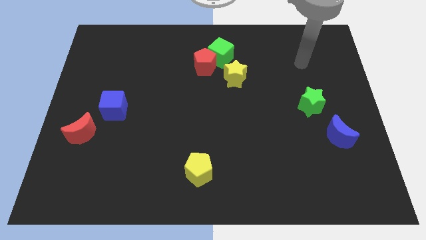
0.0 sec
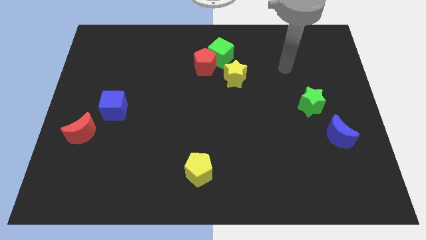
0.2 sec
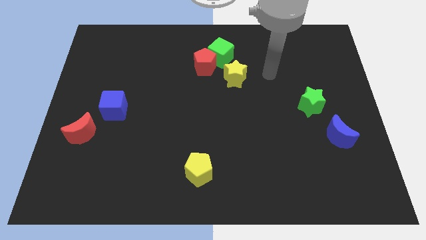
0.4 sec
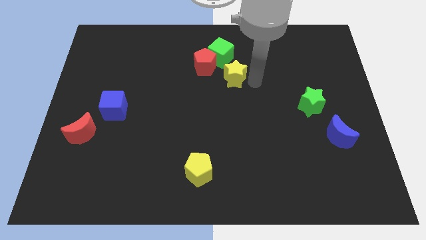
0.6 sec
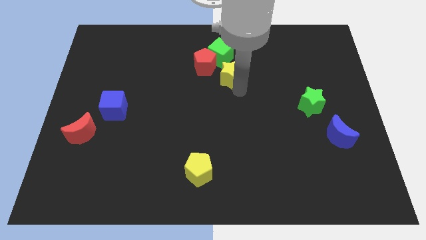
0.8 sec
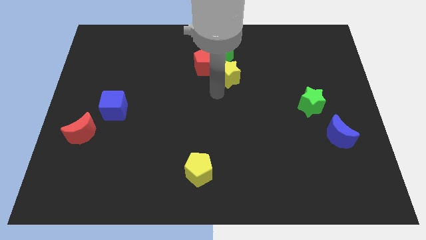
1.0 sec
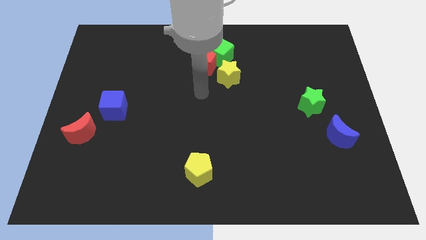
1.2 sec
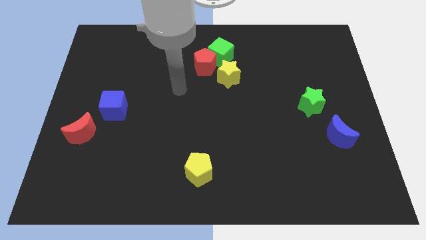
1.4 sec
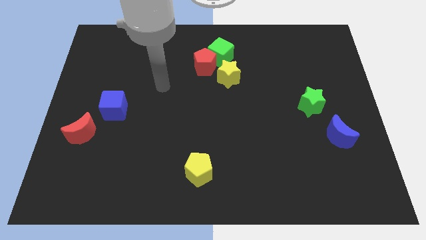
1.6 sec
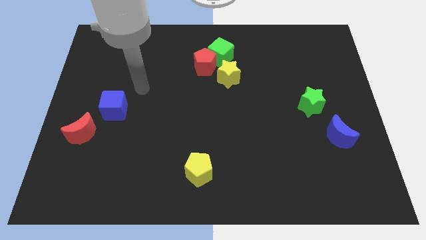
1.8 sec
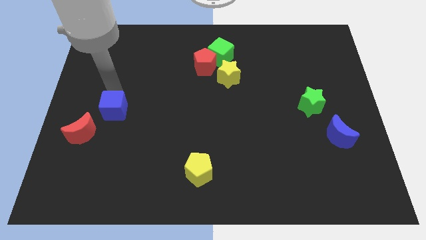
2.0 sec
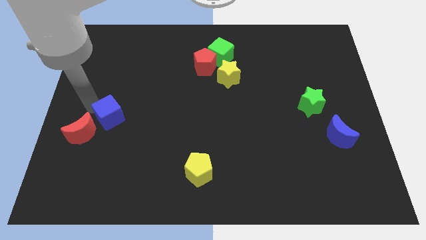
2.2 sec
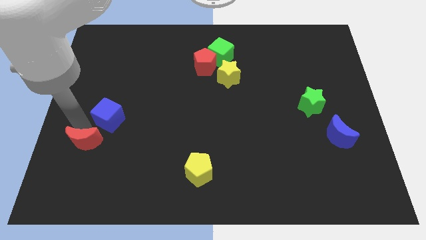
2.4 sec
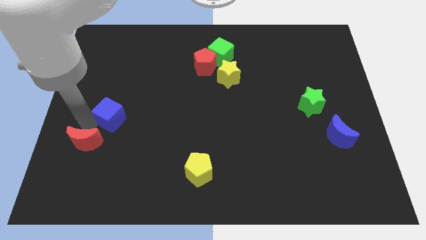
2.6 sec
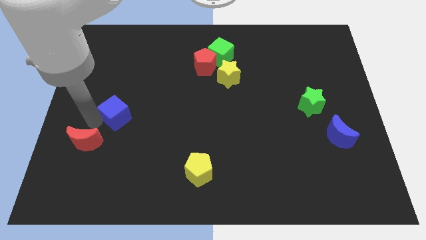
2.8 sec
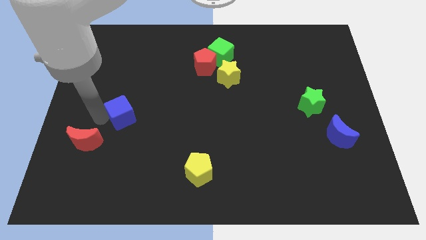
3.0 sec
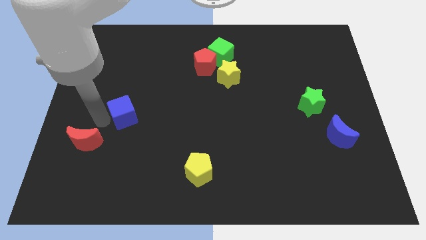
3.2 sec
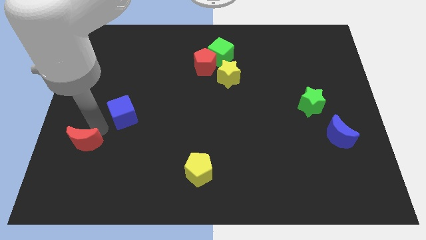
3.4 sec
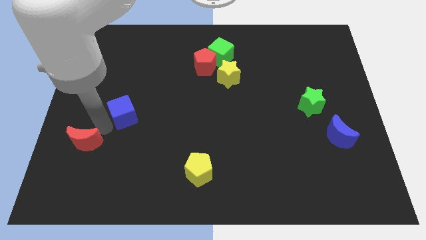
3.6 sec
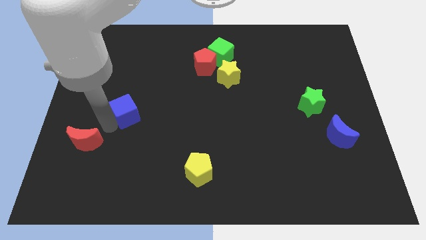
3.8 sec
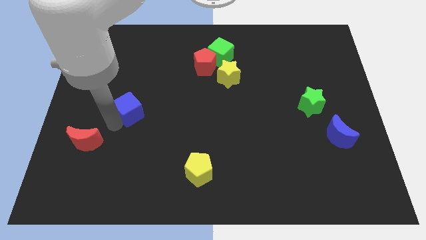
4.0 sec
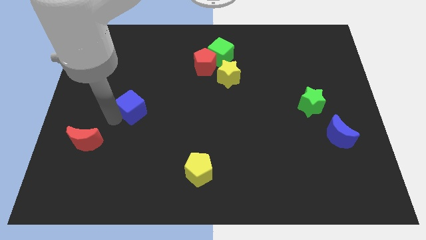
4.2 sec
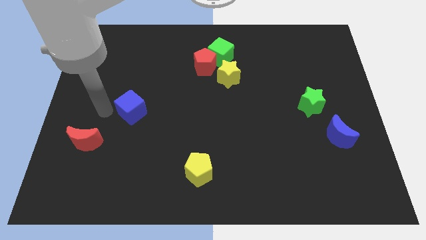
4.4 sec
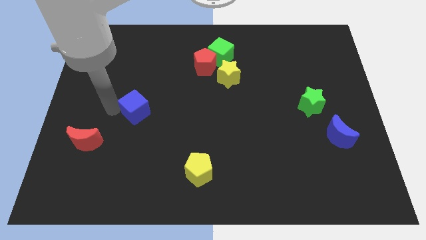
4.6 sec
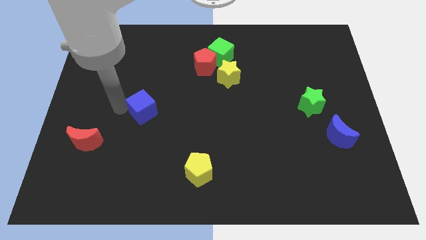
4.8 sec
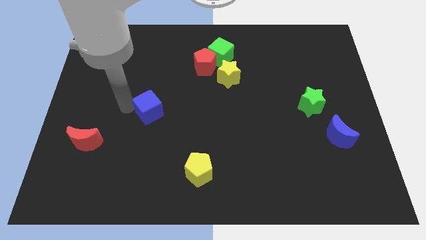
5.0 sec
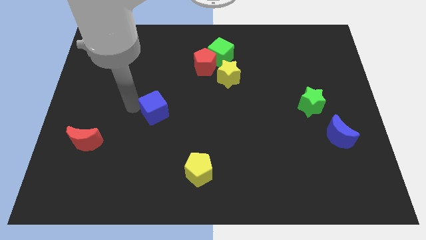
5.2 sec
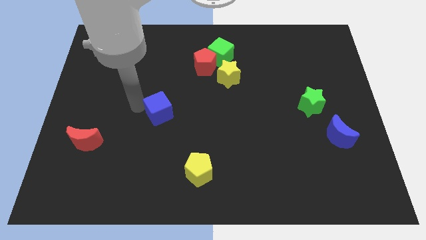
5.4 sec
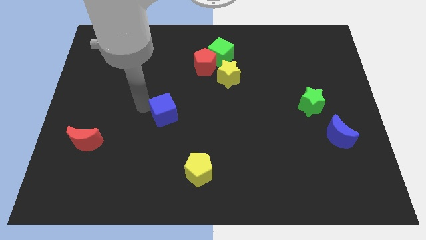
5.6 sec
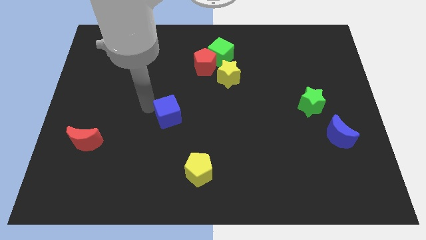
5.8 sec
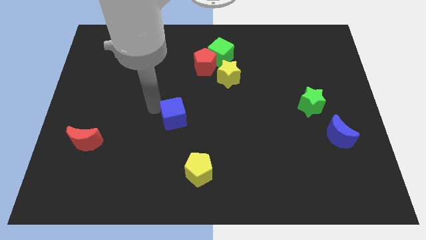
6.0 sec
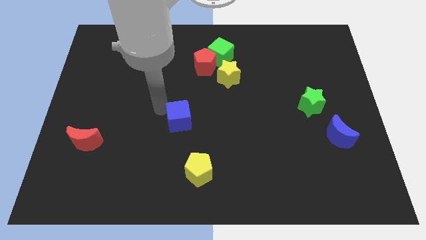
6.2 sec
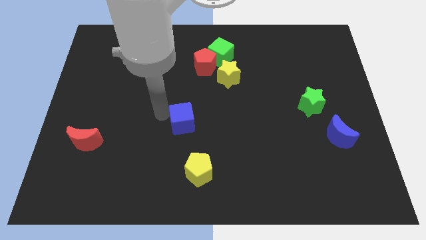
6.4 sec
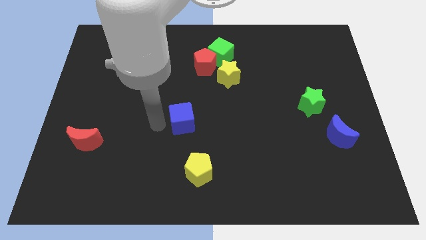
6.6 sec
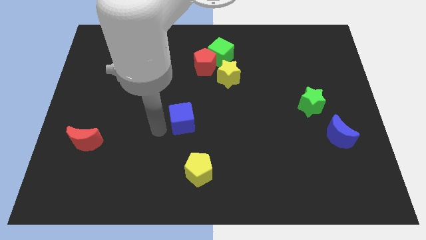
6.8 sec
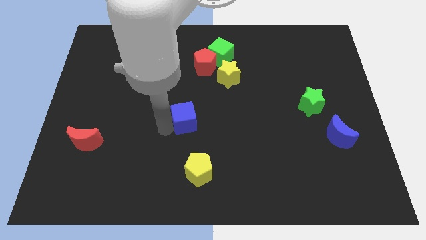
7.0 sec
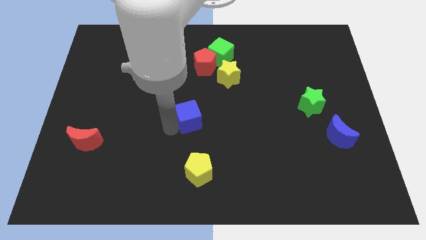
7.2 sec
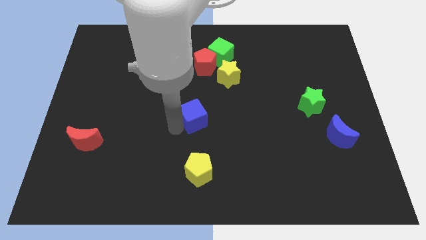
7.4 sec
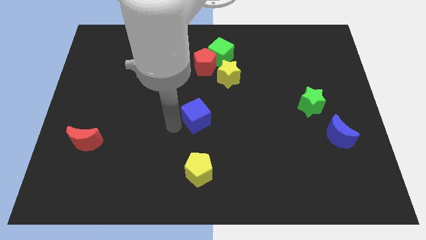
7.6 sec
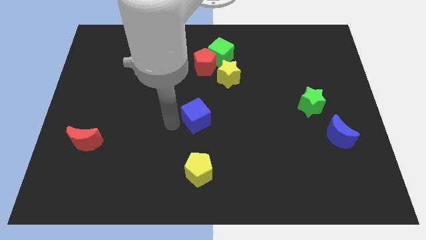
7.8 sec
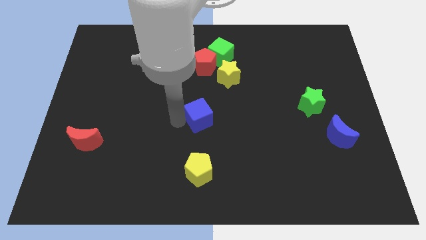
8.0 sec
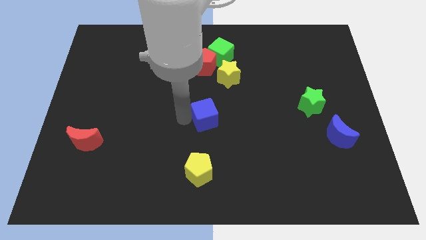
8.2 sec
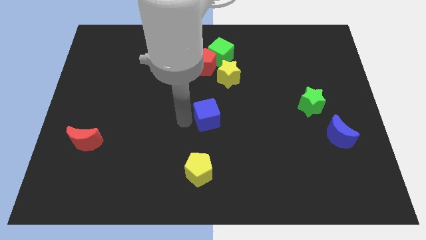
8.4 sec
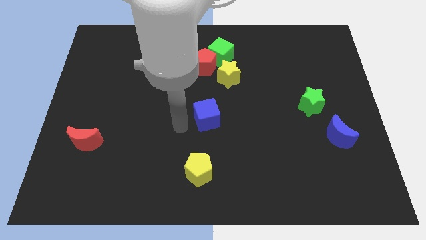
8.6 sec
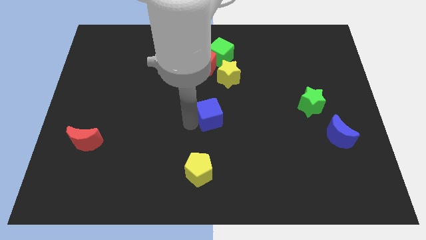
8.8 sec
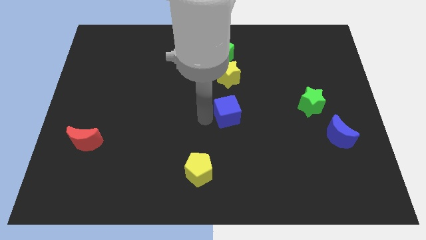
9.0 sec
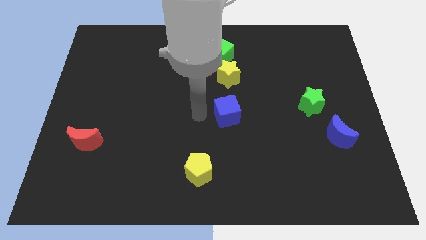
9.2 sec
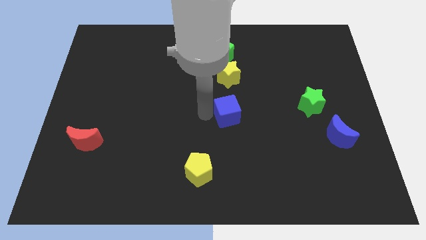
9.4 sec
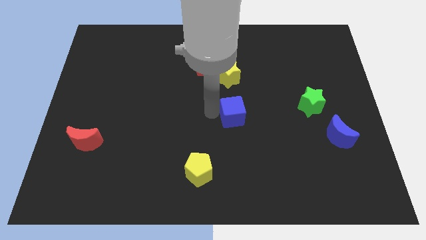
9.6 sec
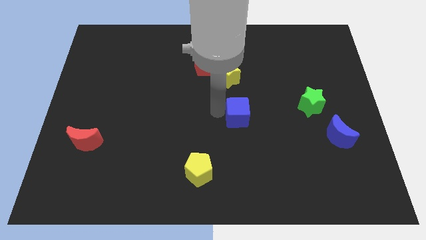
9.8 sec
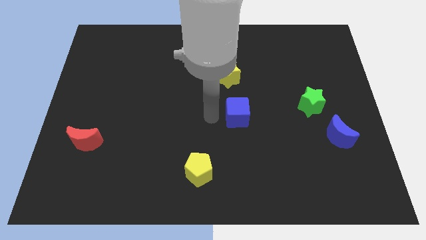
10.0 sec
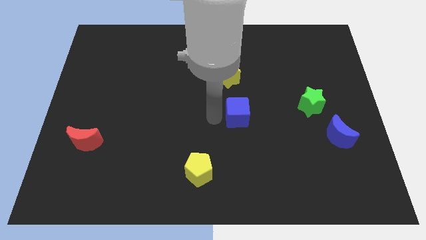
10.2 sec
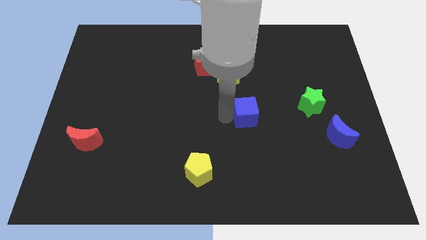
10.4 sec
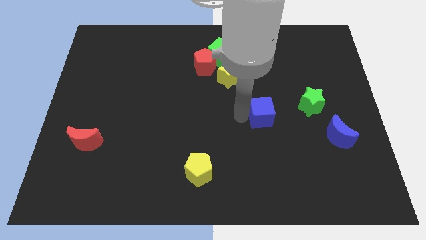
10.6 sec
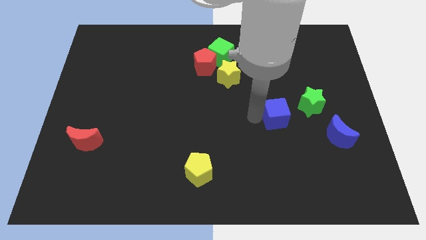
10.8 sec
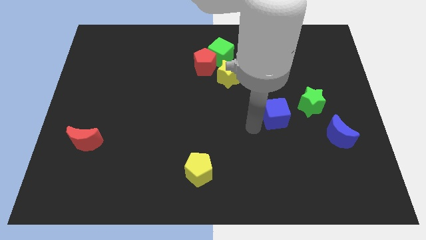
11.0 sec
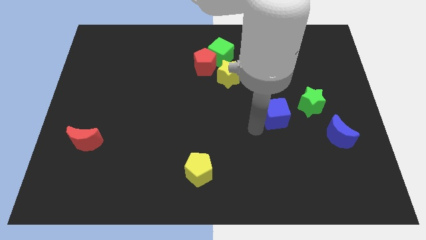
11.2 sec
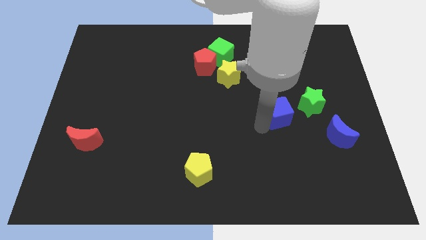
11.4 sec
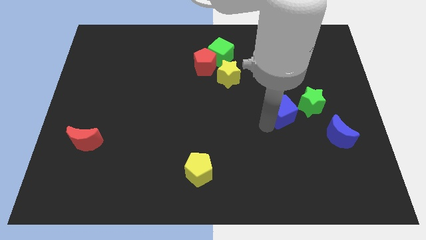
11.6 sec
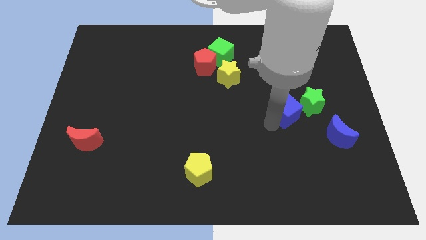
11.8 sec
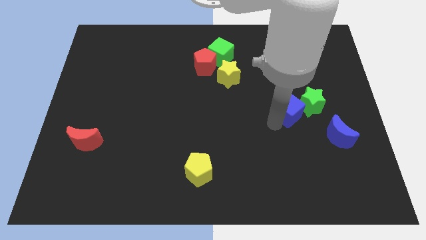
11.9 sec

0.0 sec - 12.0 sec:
put the blue cube next to the green star

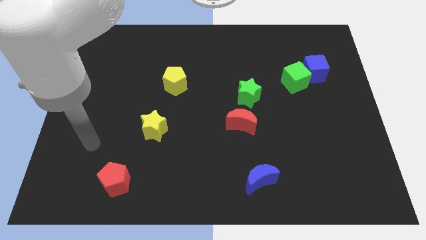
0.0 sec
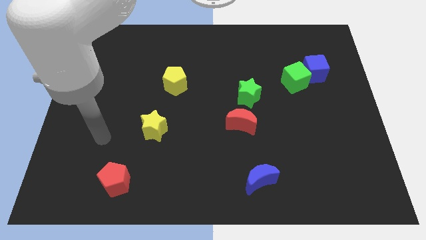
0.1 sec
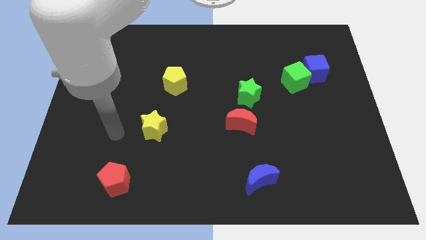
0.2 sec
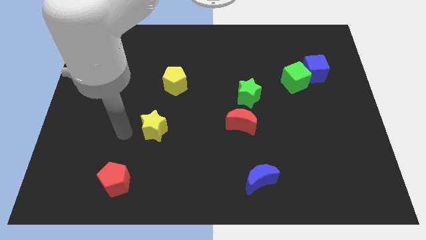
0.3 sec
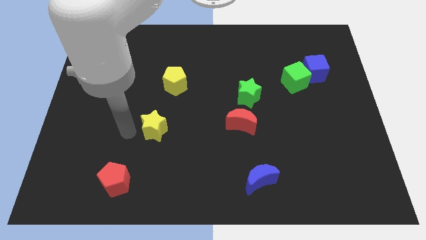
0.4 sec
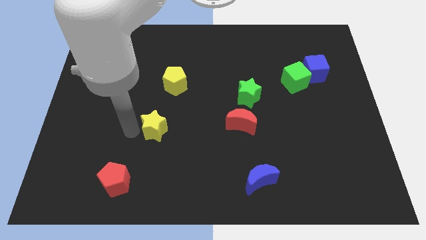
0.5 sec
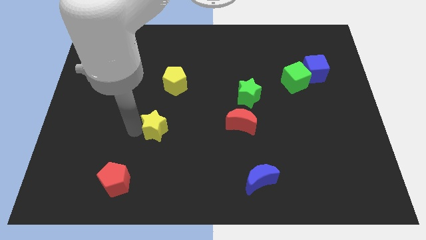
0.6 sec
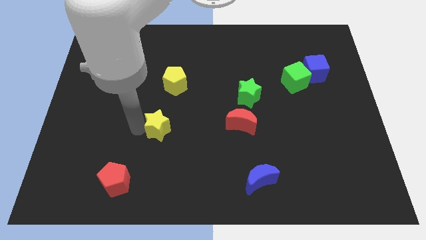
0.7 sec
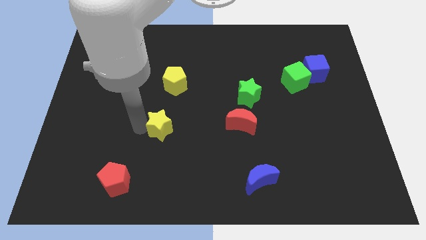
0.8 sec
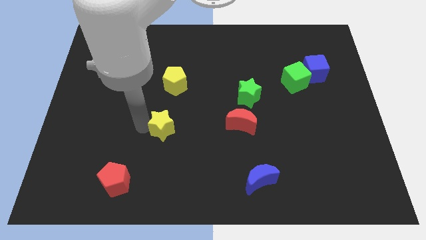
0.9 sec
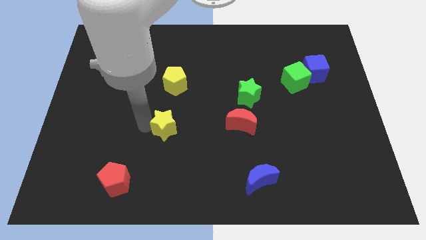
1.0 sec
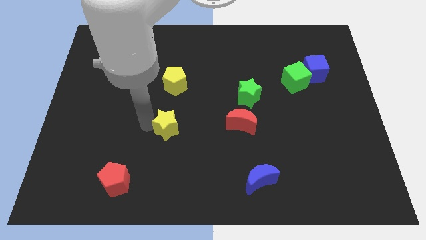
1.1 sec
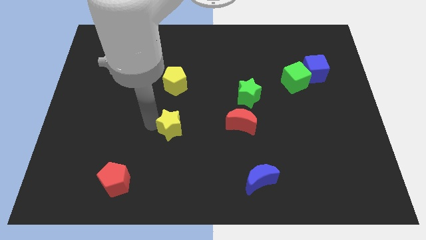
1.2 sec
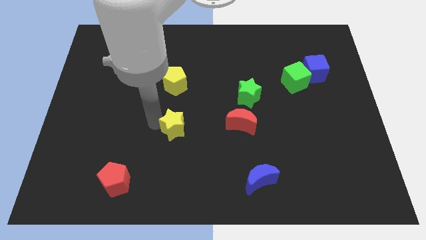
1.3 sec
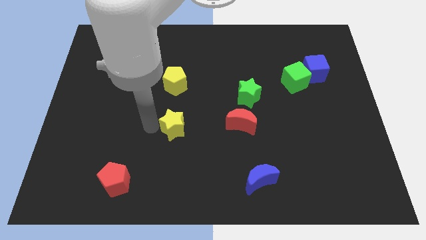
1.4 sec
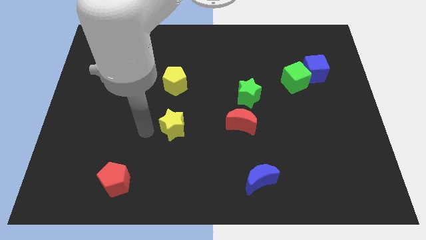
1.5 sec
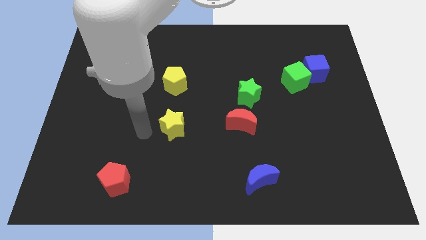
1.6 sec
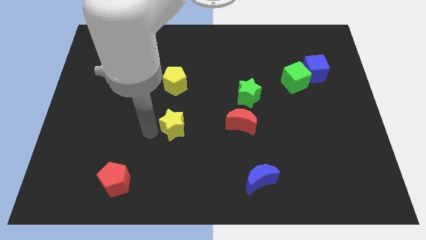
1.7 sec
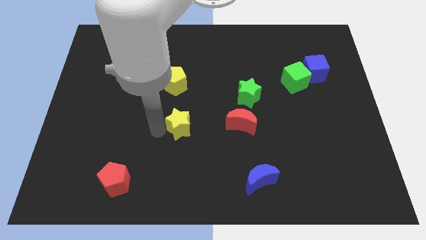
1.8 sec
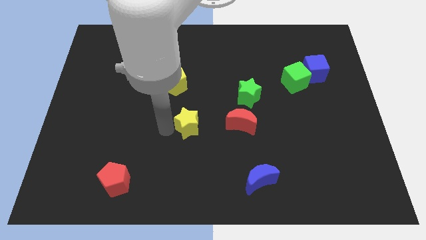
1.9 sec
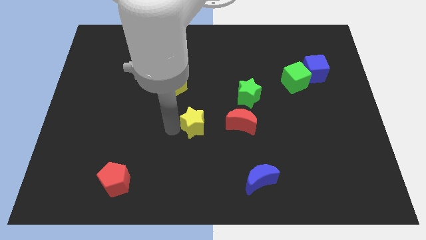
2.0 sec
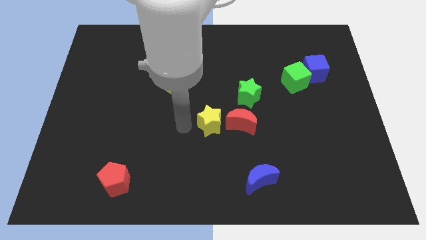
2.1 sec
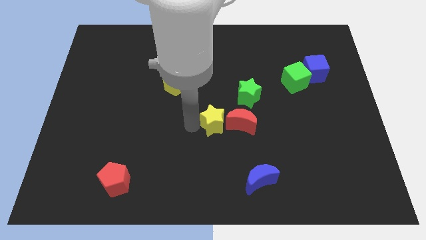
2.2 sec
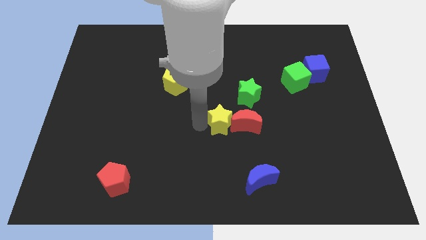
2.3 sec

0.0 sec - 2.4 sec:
move the yellow star towards the red moon
